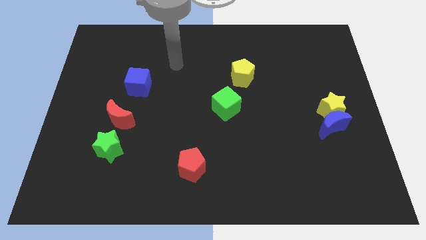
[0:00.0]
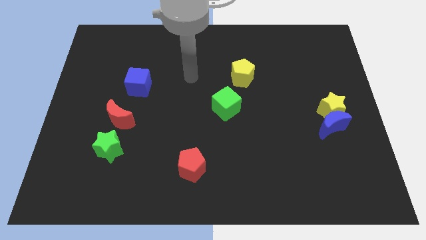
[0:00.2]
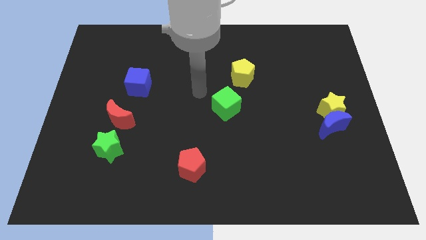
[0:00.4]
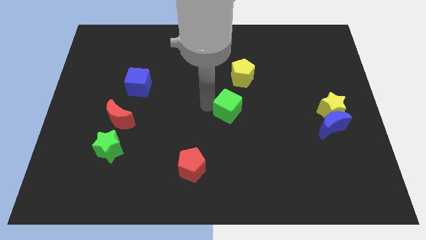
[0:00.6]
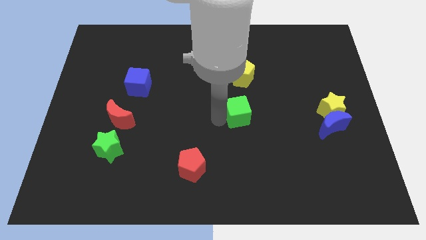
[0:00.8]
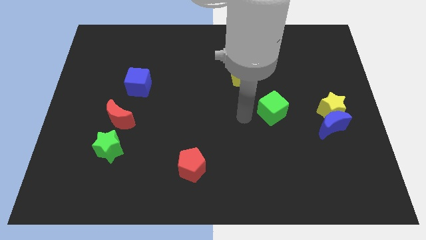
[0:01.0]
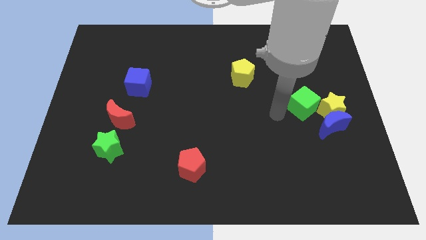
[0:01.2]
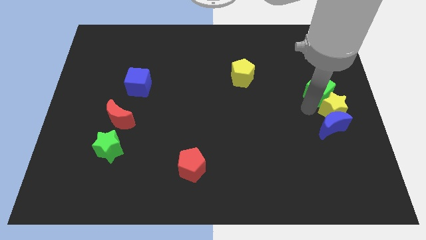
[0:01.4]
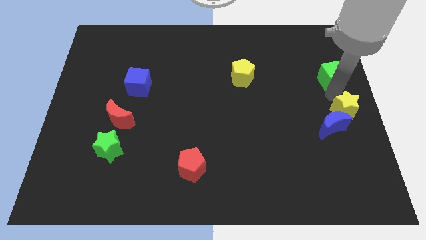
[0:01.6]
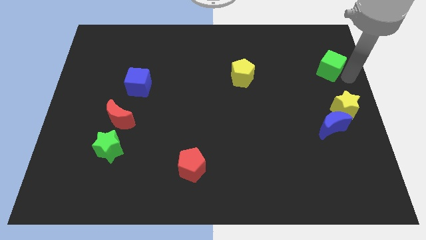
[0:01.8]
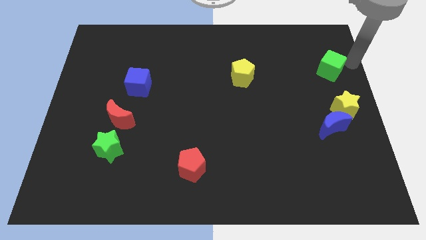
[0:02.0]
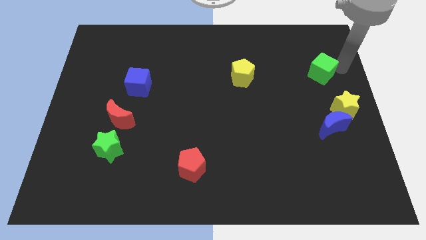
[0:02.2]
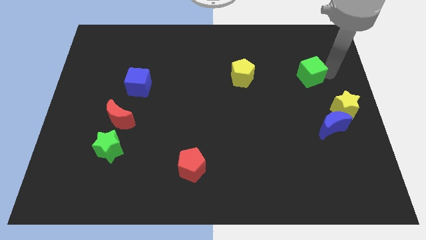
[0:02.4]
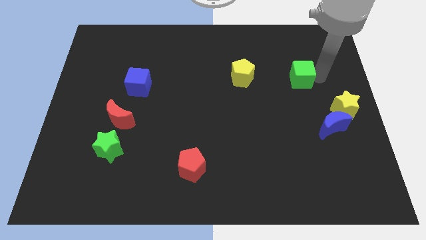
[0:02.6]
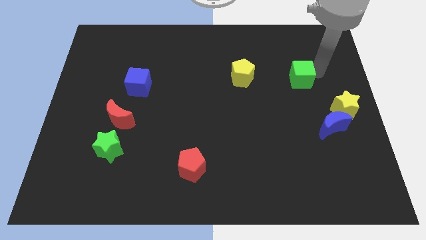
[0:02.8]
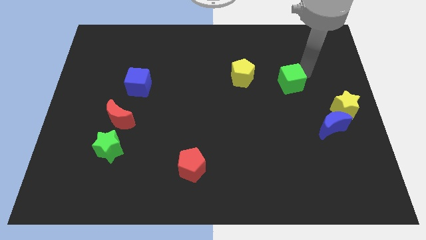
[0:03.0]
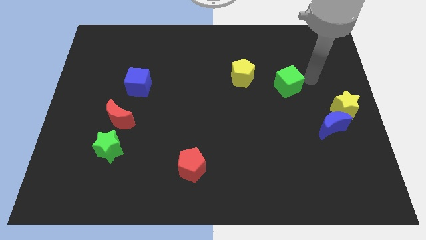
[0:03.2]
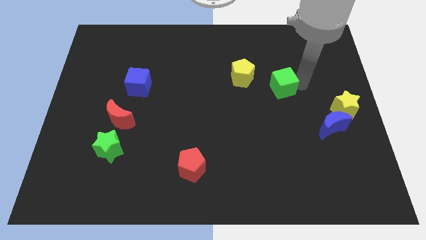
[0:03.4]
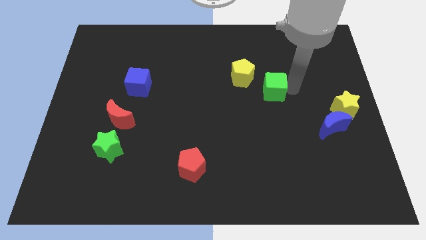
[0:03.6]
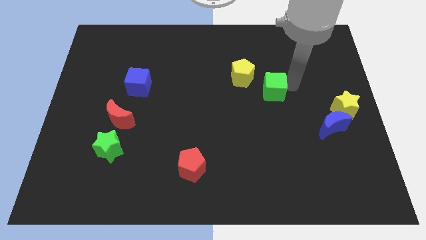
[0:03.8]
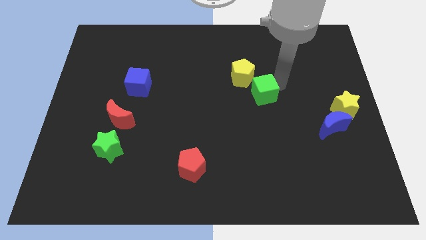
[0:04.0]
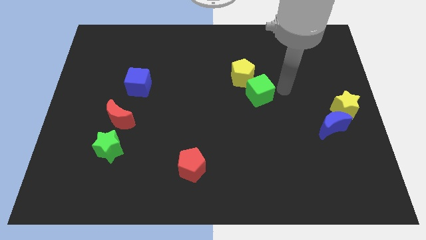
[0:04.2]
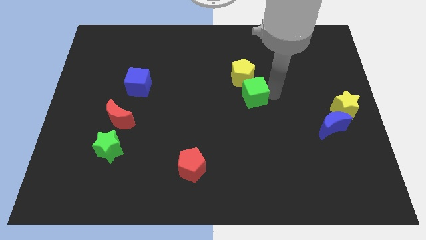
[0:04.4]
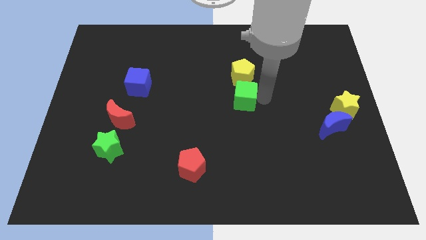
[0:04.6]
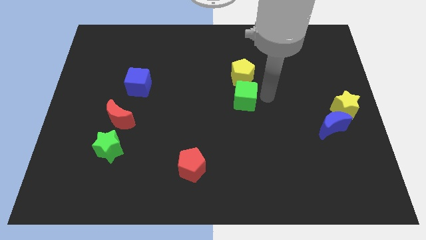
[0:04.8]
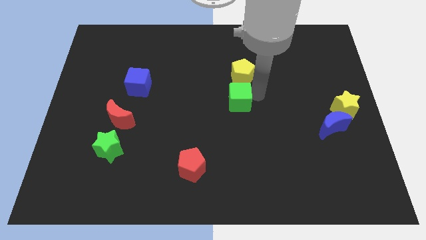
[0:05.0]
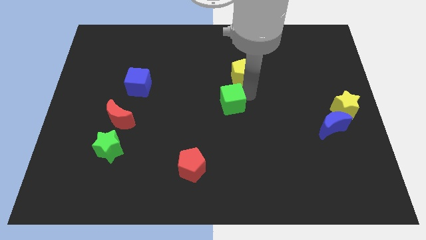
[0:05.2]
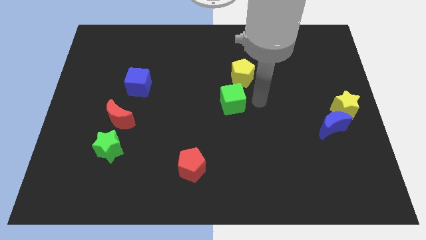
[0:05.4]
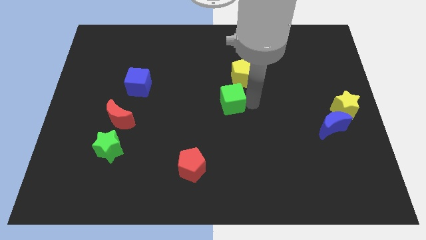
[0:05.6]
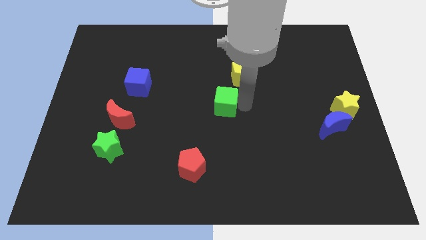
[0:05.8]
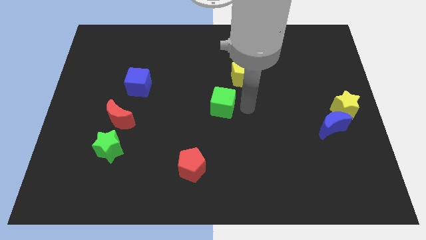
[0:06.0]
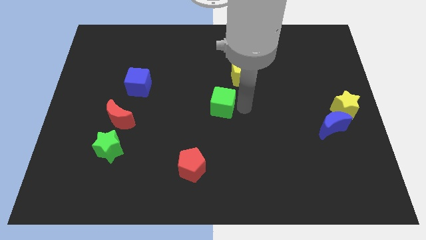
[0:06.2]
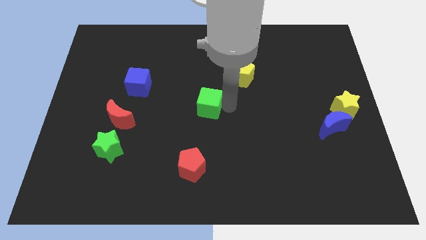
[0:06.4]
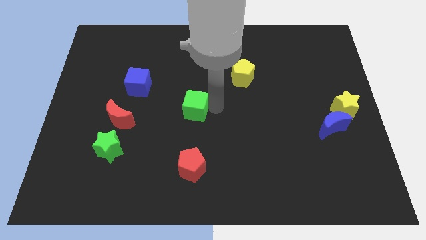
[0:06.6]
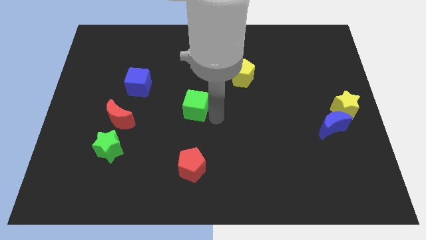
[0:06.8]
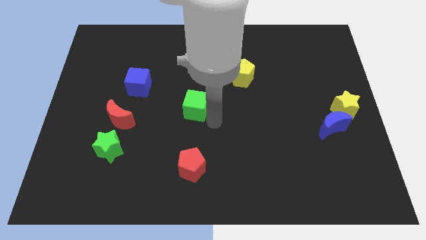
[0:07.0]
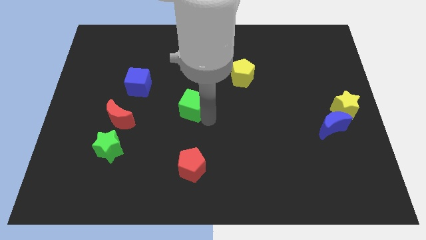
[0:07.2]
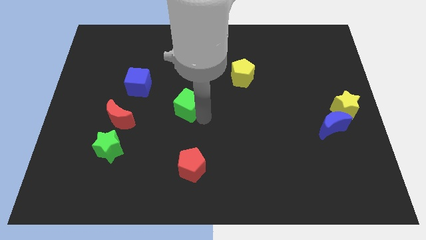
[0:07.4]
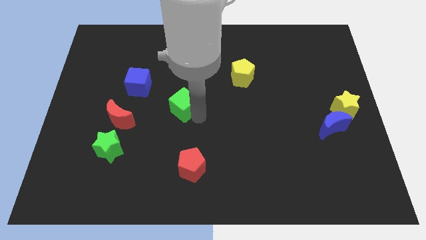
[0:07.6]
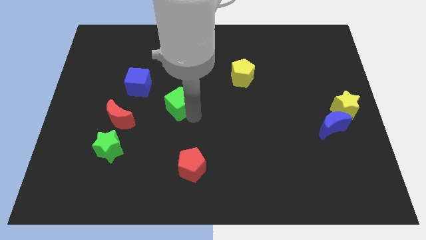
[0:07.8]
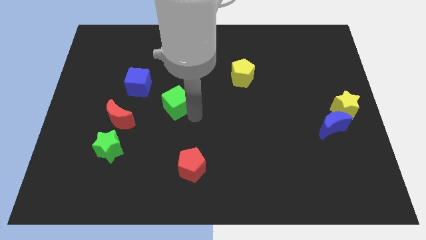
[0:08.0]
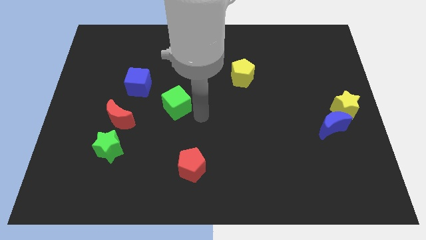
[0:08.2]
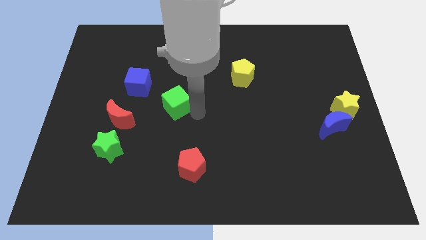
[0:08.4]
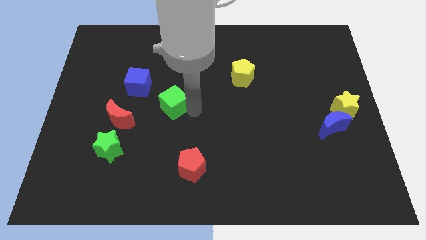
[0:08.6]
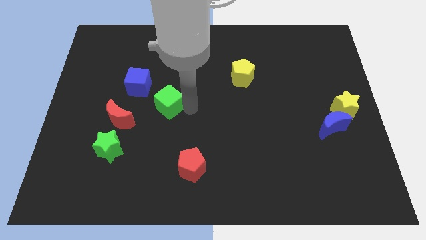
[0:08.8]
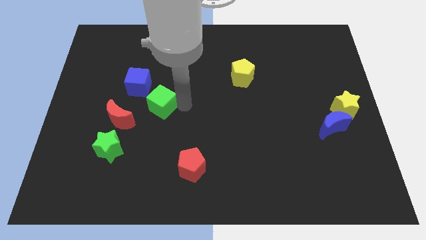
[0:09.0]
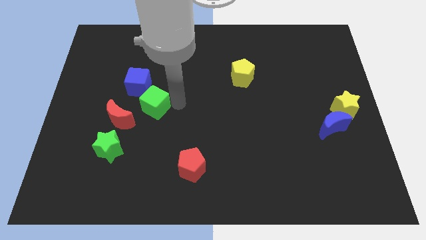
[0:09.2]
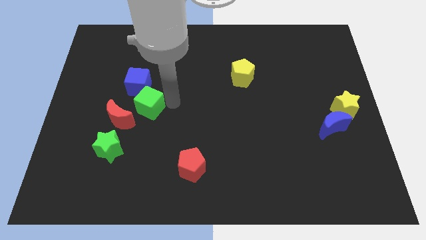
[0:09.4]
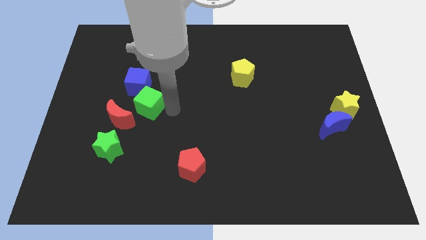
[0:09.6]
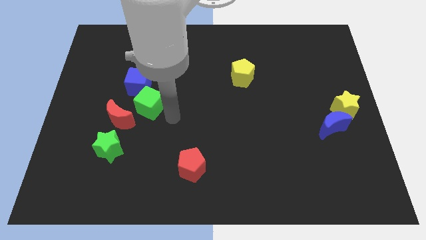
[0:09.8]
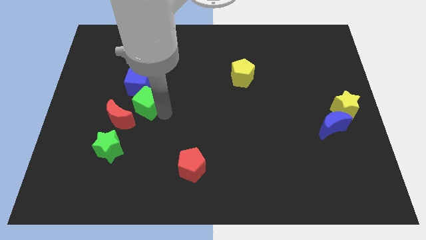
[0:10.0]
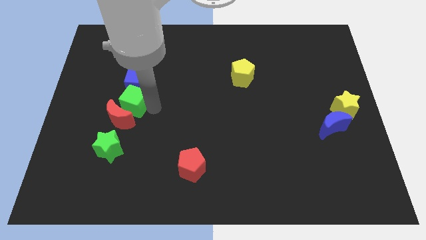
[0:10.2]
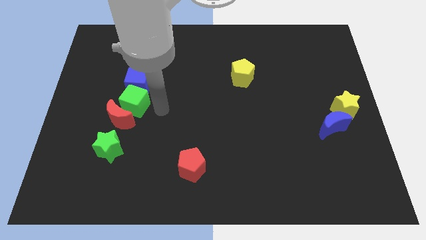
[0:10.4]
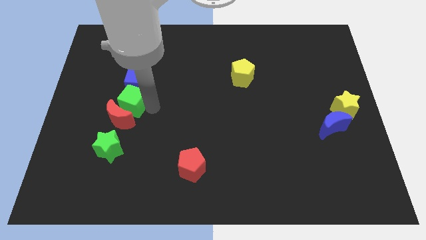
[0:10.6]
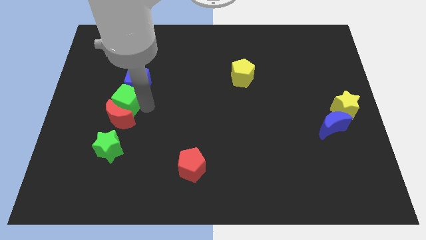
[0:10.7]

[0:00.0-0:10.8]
push the green cube to the top left side of the red moon

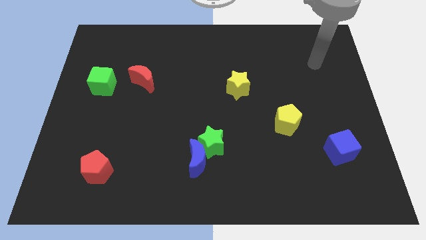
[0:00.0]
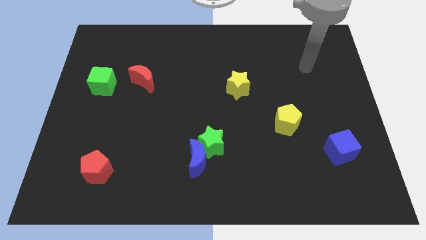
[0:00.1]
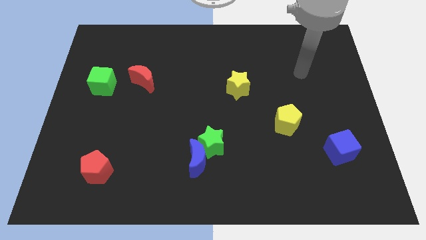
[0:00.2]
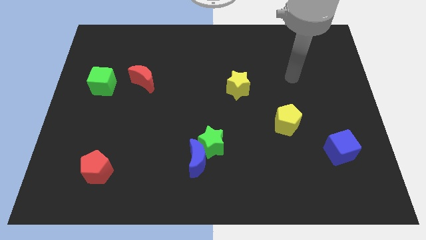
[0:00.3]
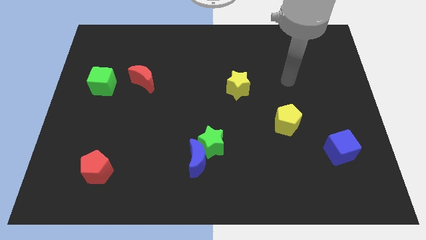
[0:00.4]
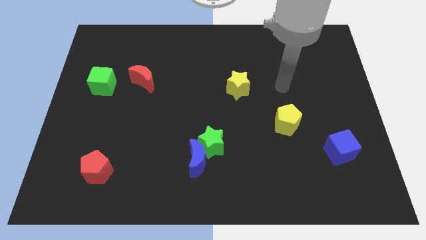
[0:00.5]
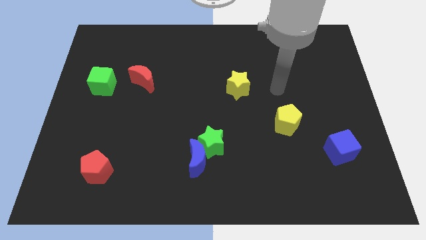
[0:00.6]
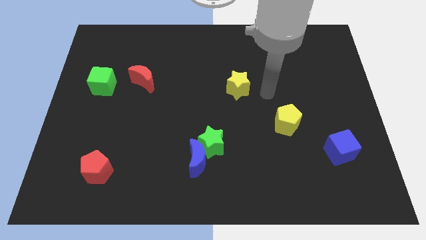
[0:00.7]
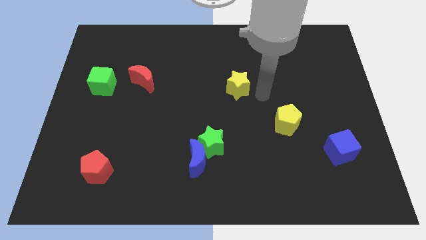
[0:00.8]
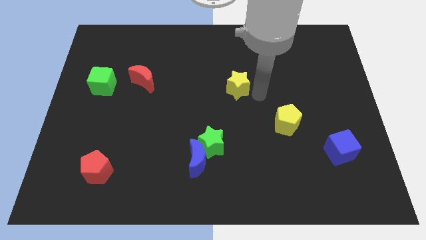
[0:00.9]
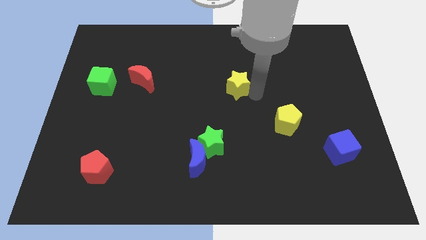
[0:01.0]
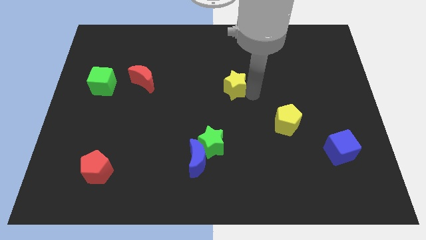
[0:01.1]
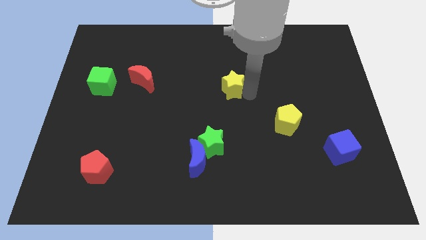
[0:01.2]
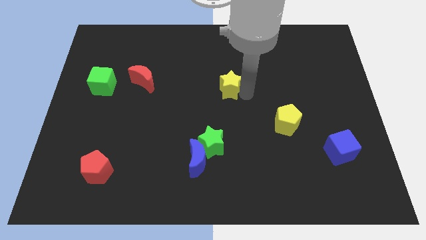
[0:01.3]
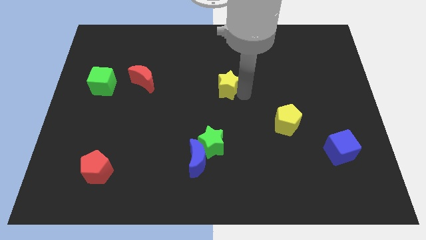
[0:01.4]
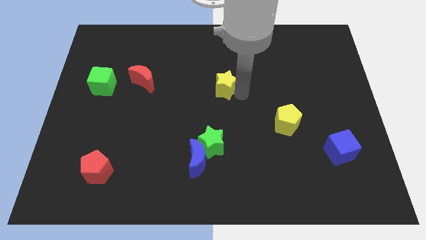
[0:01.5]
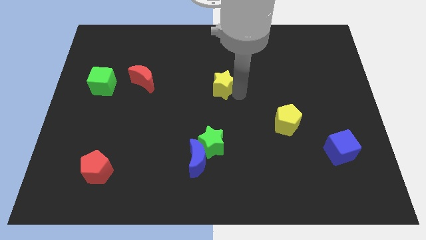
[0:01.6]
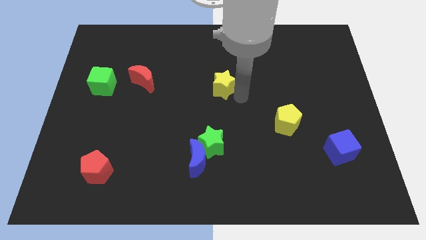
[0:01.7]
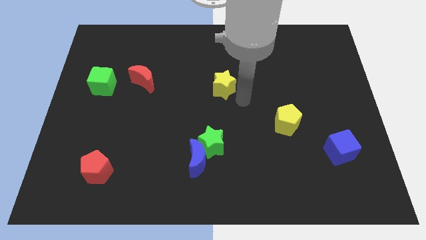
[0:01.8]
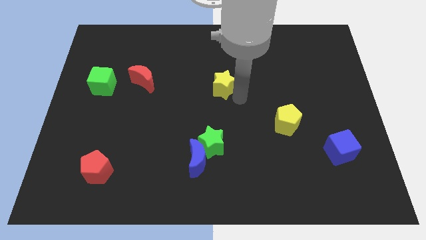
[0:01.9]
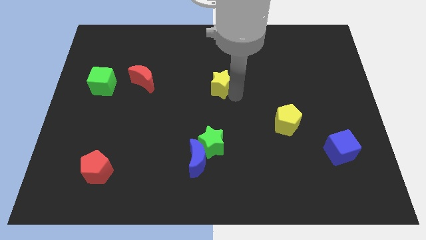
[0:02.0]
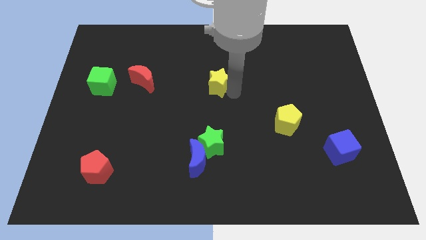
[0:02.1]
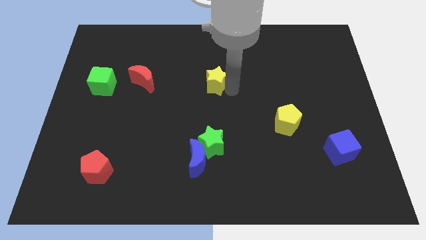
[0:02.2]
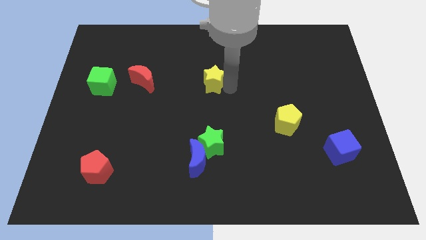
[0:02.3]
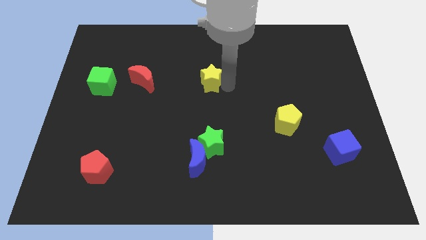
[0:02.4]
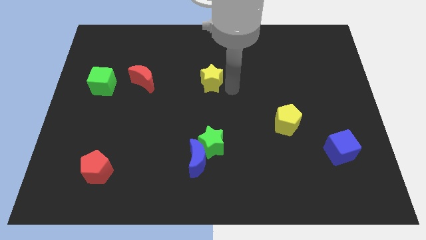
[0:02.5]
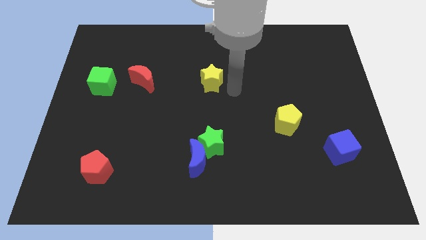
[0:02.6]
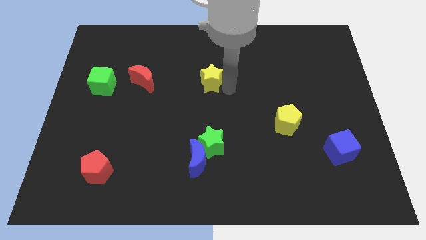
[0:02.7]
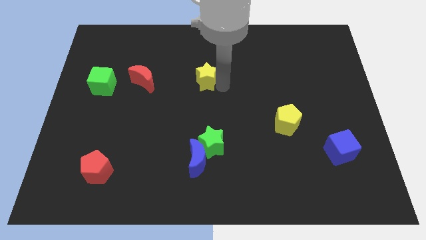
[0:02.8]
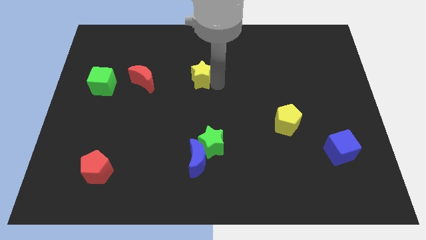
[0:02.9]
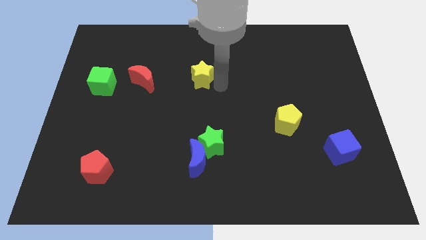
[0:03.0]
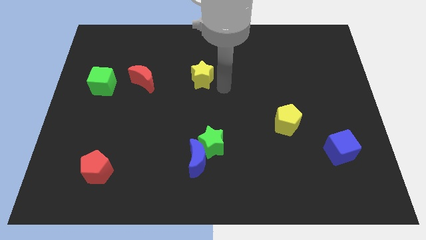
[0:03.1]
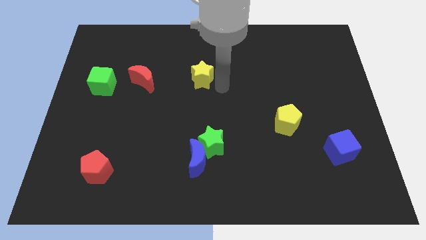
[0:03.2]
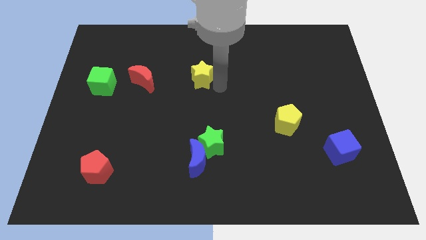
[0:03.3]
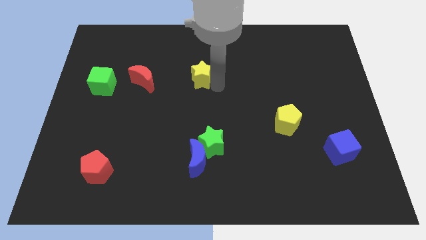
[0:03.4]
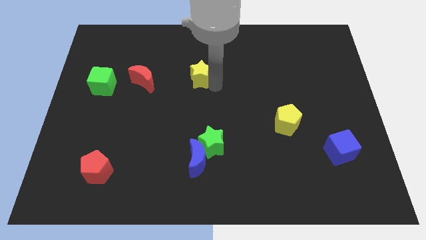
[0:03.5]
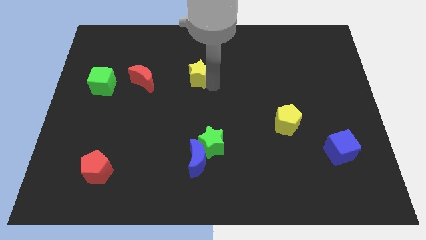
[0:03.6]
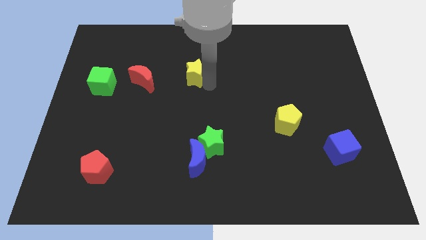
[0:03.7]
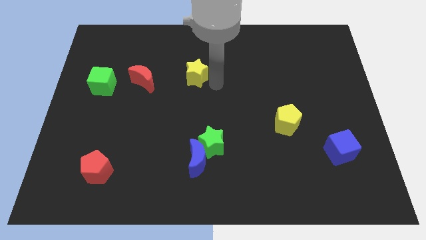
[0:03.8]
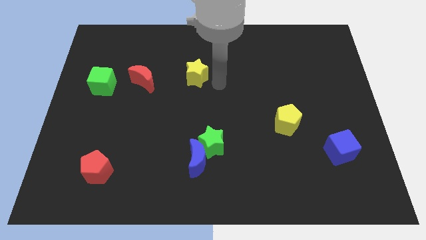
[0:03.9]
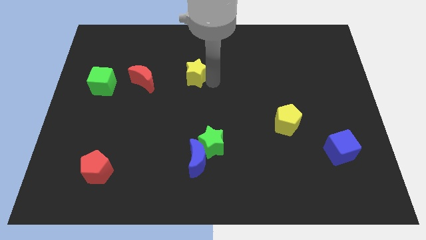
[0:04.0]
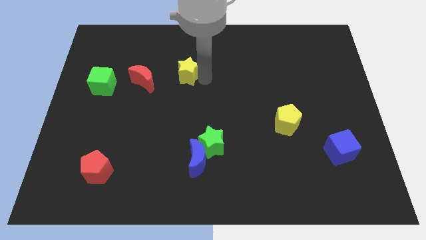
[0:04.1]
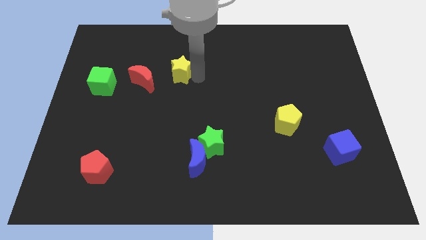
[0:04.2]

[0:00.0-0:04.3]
push the yellow star to the top right of the red moon
